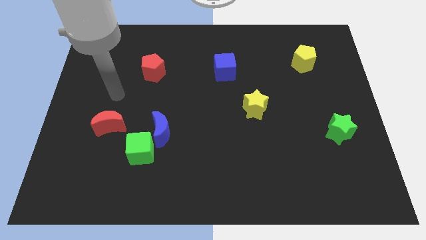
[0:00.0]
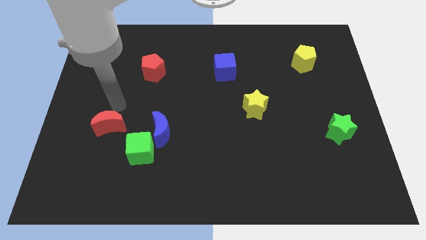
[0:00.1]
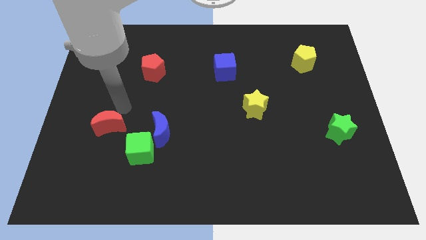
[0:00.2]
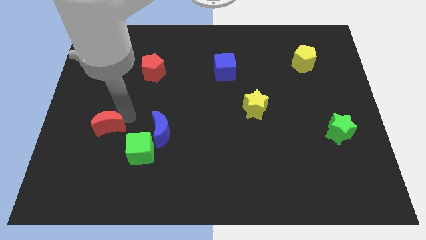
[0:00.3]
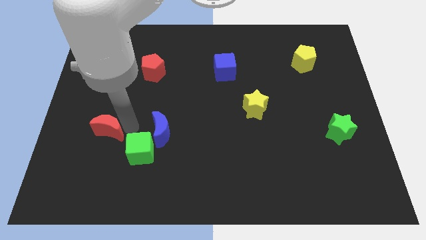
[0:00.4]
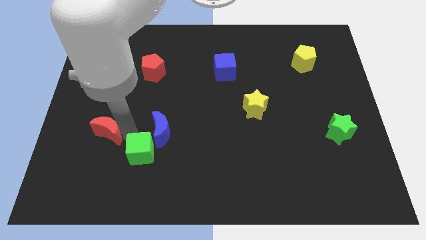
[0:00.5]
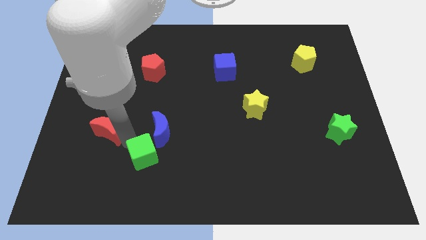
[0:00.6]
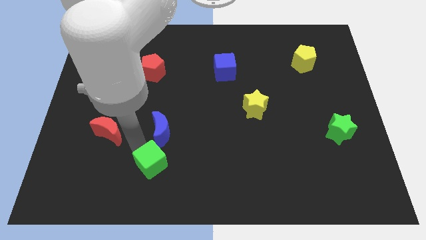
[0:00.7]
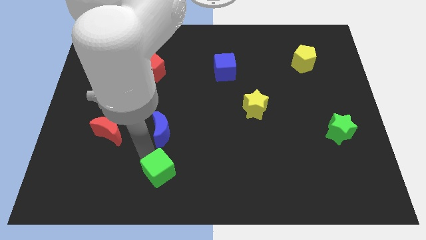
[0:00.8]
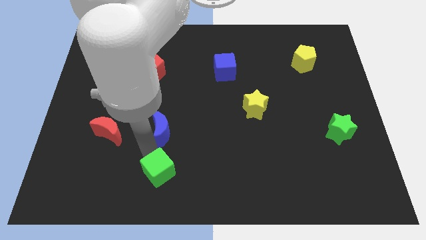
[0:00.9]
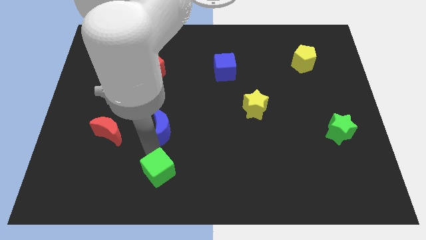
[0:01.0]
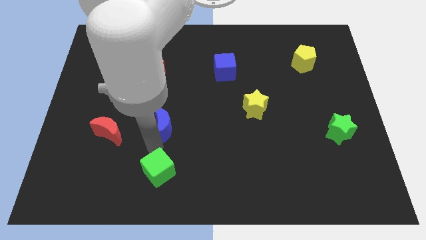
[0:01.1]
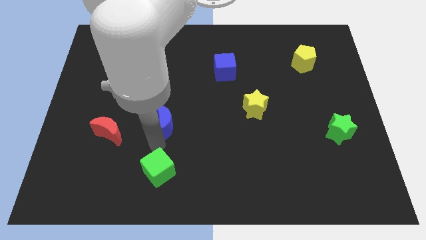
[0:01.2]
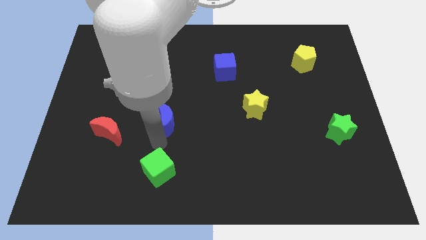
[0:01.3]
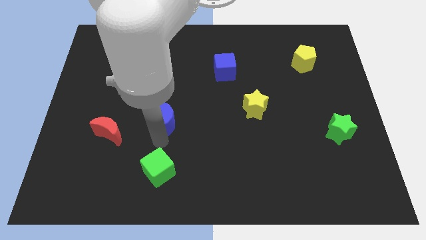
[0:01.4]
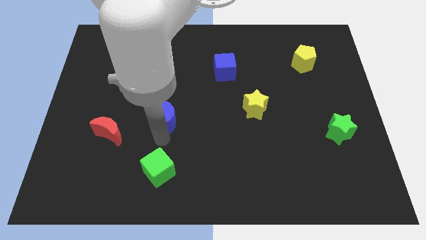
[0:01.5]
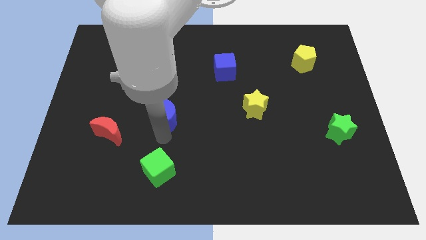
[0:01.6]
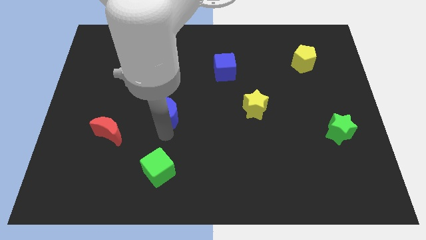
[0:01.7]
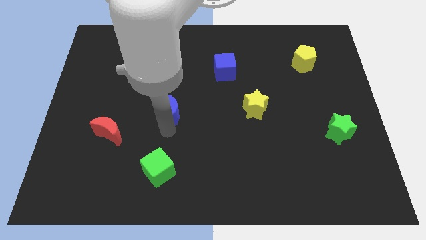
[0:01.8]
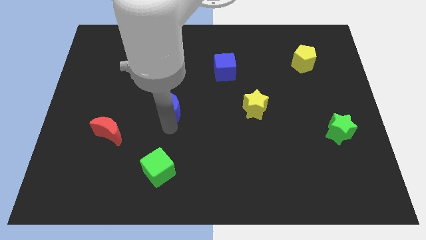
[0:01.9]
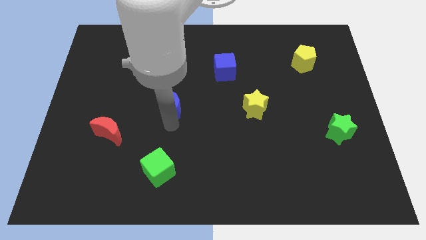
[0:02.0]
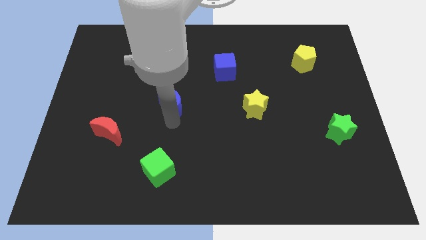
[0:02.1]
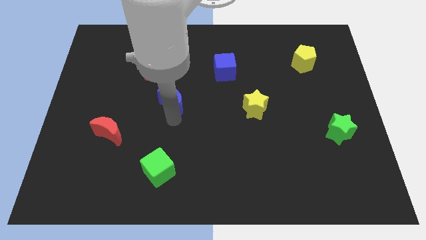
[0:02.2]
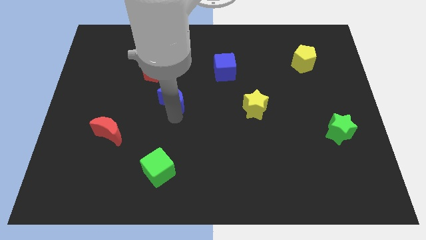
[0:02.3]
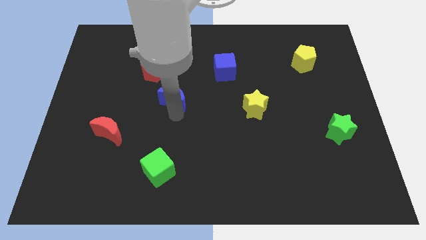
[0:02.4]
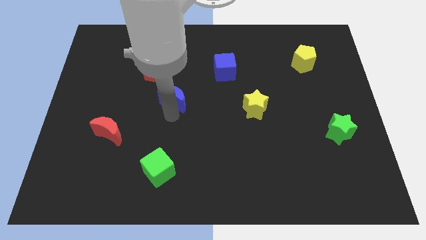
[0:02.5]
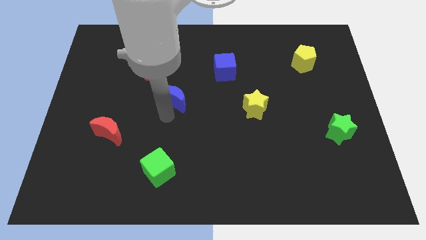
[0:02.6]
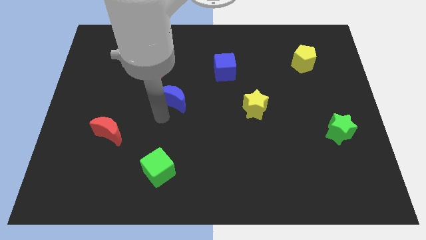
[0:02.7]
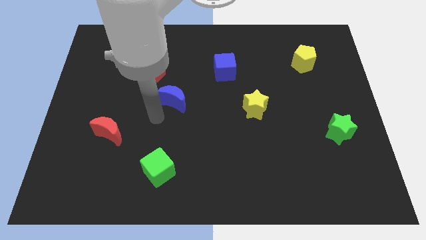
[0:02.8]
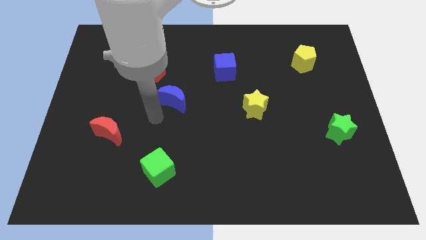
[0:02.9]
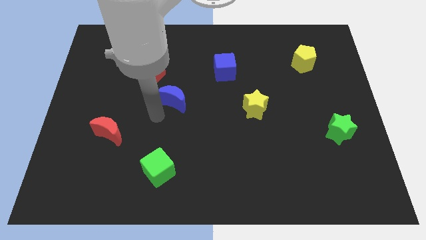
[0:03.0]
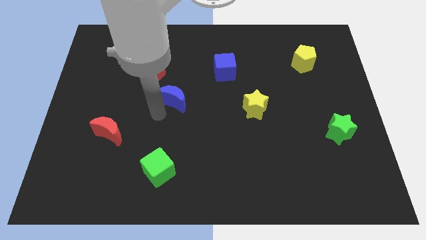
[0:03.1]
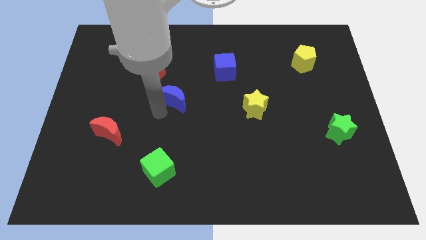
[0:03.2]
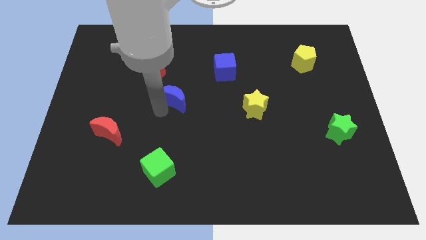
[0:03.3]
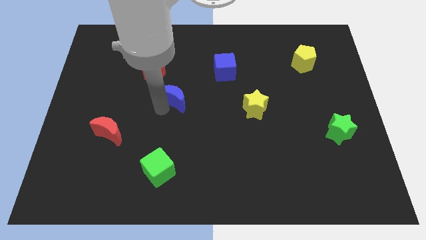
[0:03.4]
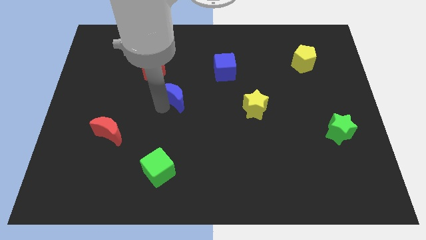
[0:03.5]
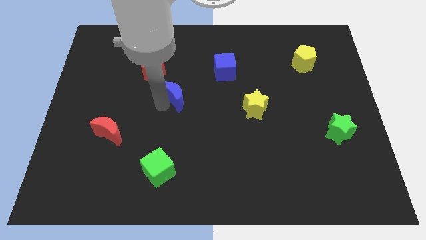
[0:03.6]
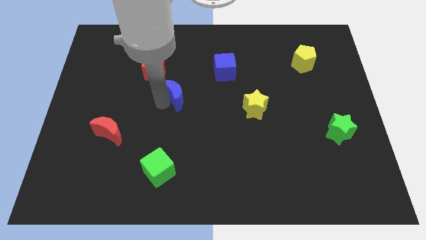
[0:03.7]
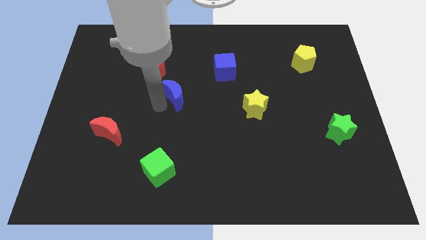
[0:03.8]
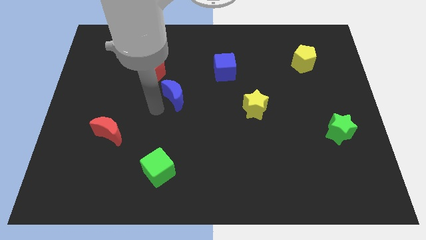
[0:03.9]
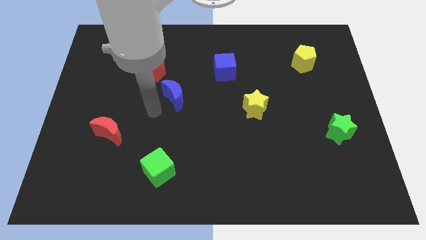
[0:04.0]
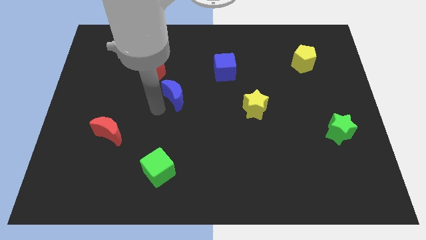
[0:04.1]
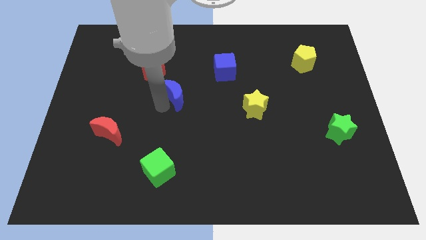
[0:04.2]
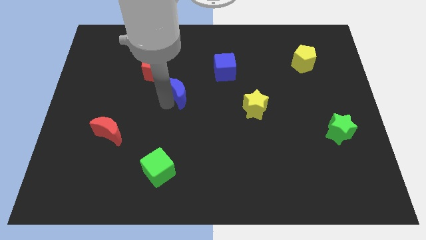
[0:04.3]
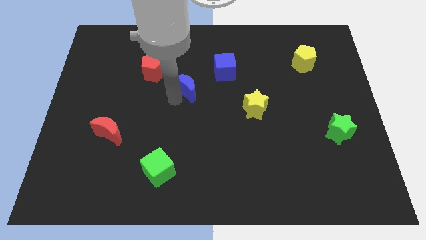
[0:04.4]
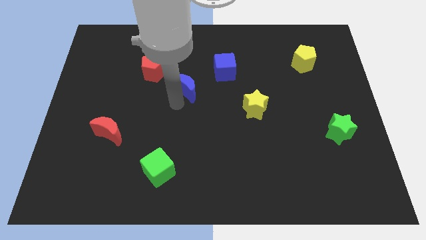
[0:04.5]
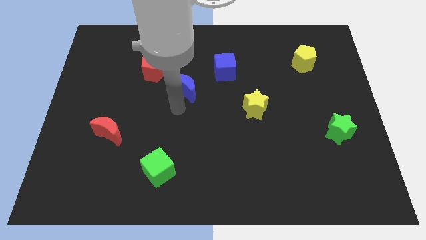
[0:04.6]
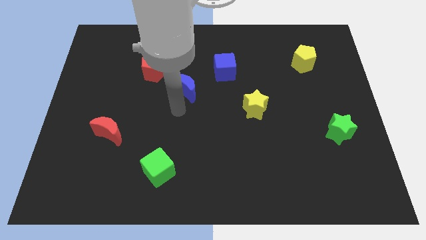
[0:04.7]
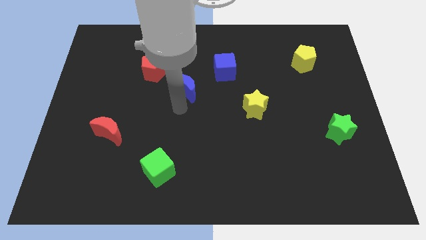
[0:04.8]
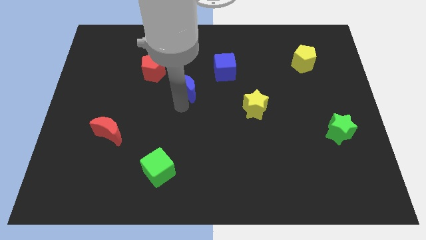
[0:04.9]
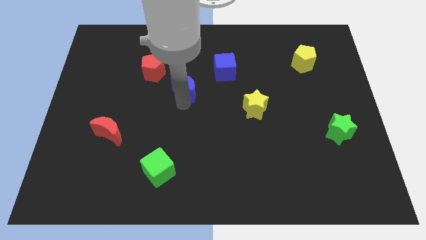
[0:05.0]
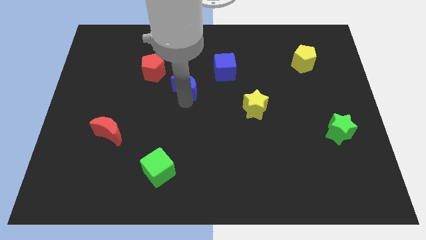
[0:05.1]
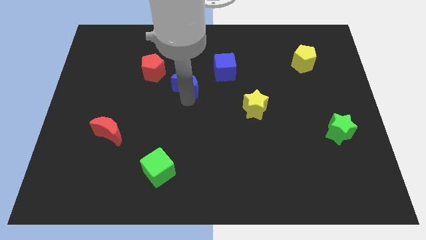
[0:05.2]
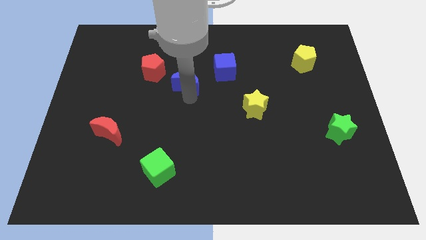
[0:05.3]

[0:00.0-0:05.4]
move the blue moon just right of the red pentagon
